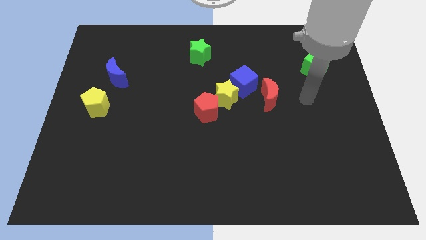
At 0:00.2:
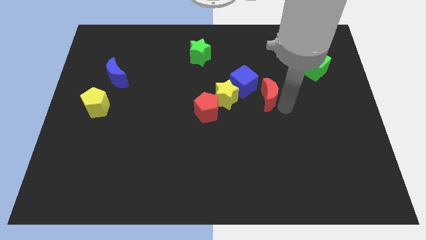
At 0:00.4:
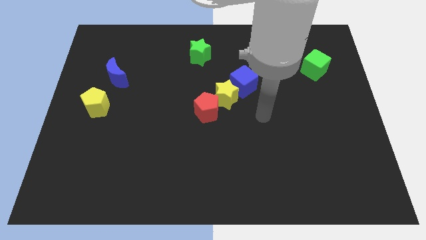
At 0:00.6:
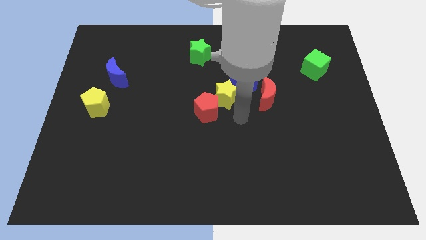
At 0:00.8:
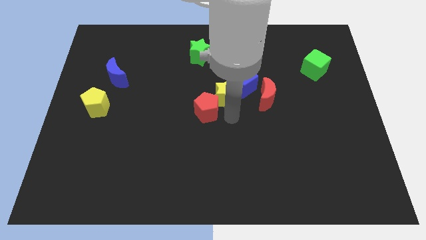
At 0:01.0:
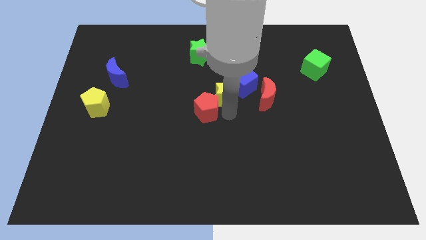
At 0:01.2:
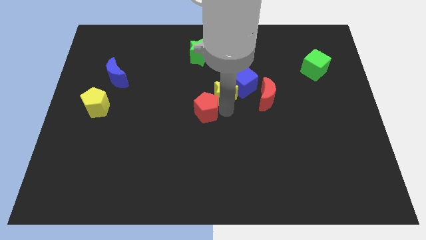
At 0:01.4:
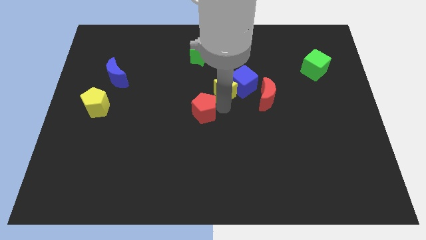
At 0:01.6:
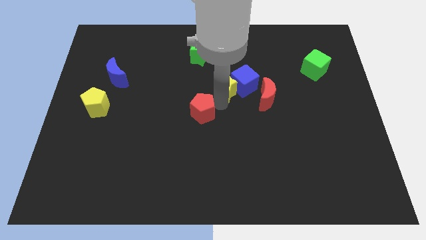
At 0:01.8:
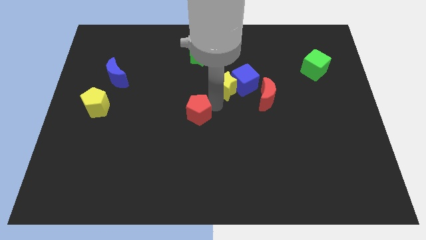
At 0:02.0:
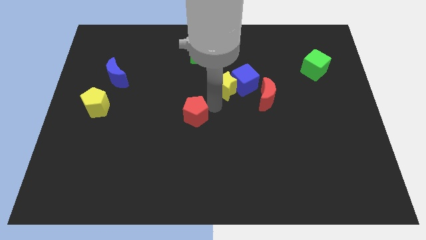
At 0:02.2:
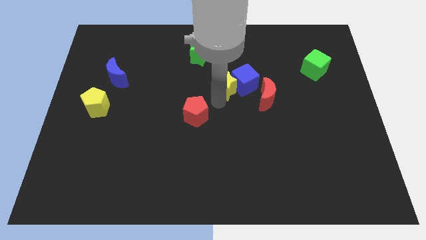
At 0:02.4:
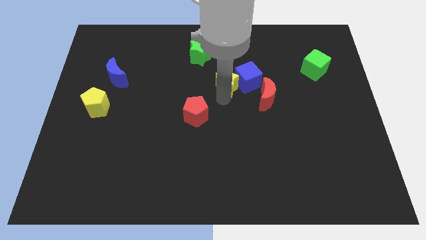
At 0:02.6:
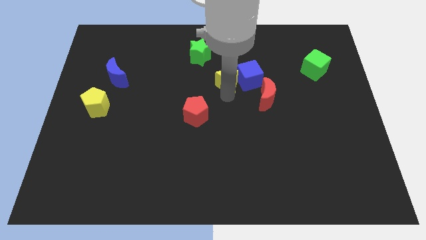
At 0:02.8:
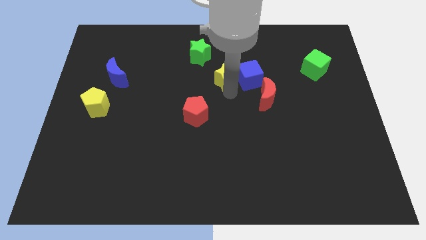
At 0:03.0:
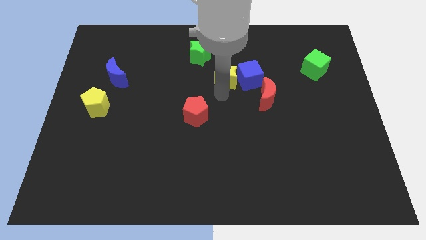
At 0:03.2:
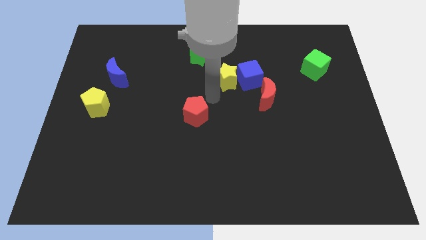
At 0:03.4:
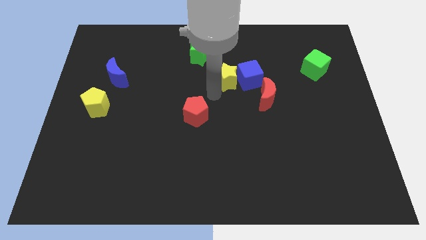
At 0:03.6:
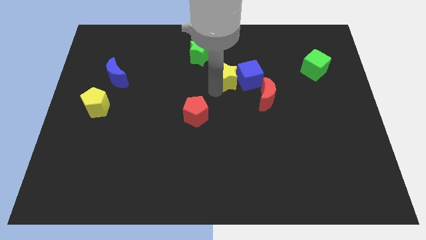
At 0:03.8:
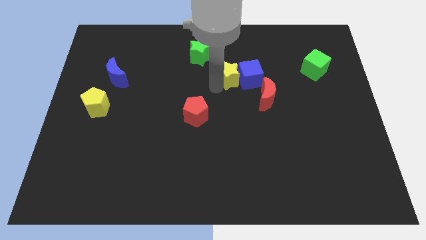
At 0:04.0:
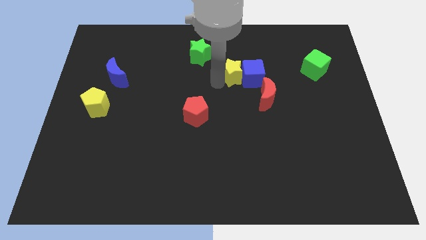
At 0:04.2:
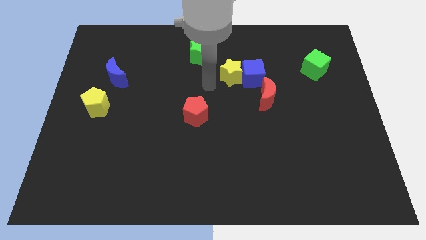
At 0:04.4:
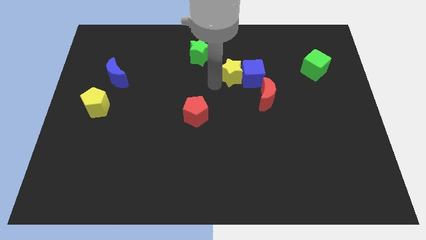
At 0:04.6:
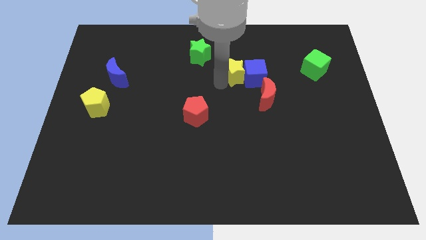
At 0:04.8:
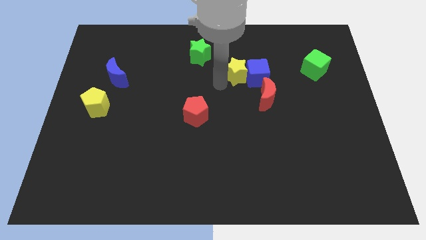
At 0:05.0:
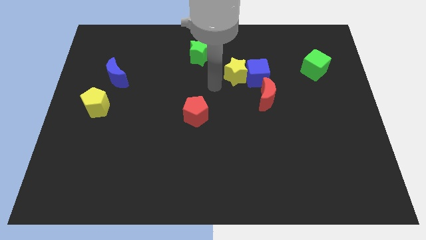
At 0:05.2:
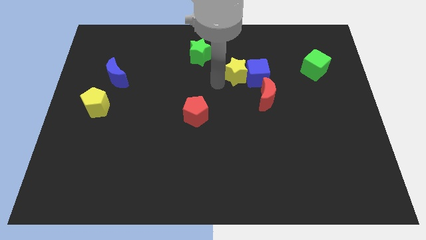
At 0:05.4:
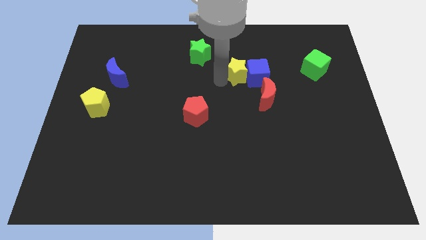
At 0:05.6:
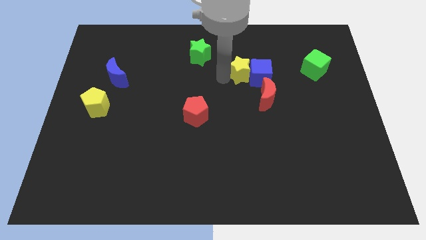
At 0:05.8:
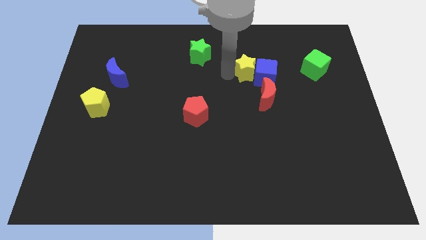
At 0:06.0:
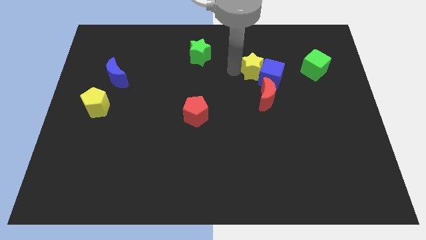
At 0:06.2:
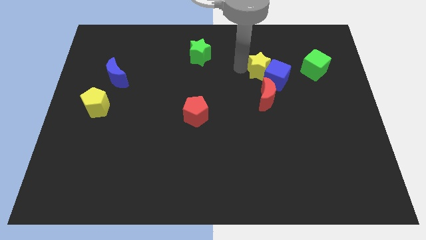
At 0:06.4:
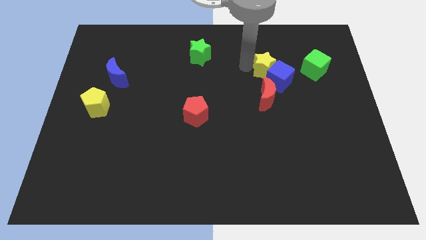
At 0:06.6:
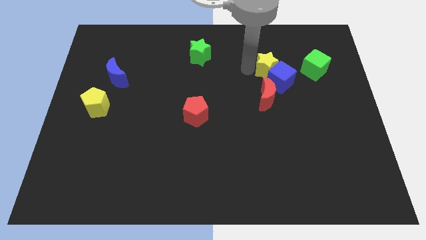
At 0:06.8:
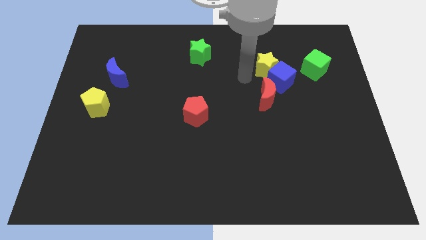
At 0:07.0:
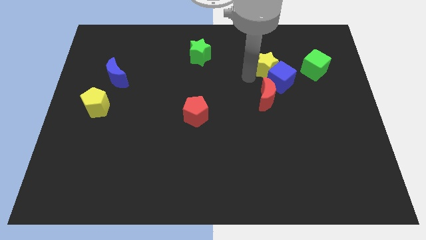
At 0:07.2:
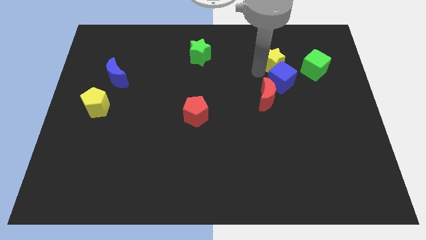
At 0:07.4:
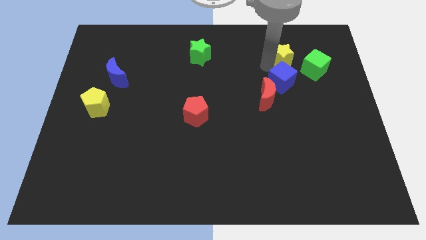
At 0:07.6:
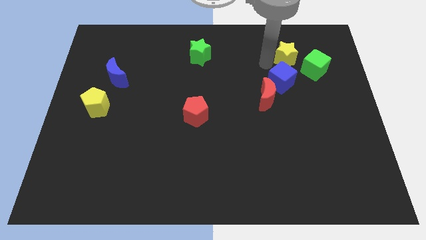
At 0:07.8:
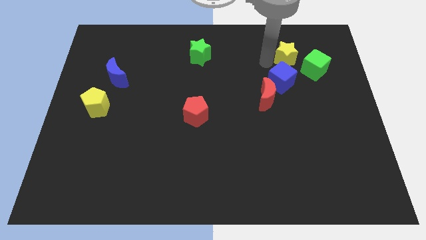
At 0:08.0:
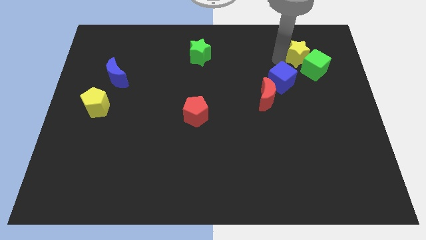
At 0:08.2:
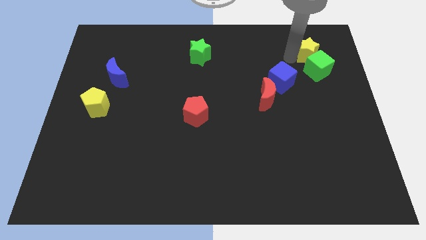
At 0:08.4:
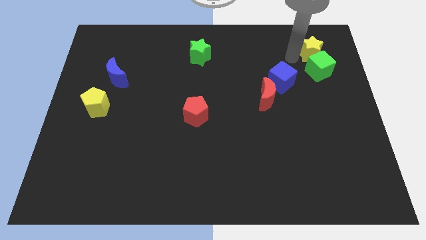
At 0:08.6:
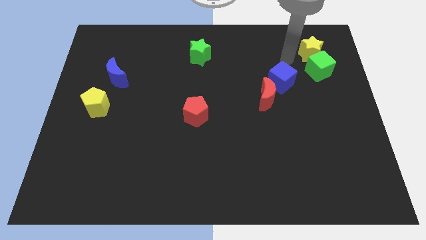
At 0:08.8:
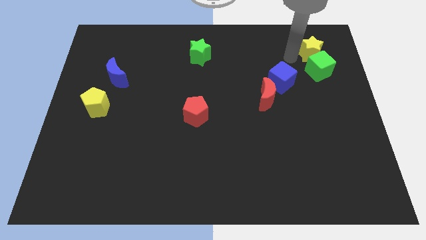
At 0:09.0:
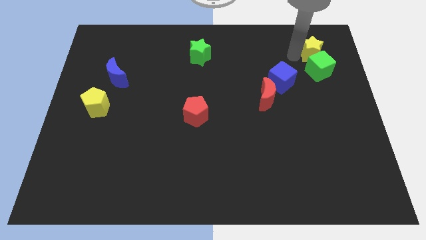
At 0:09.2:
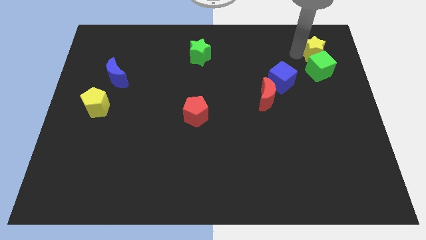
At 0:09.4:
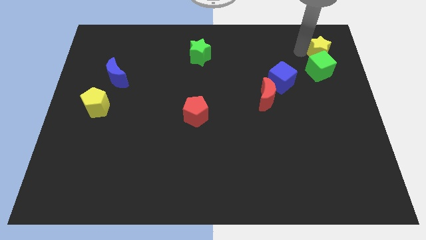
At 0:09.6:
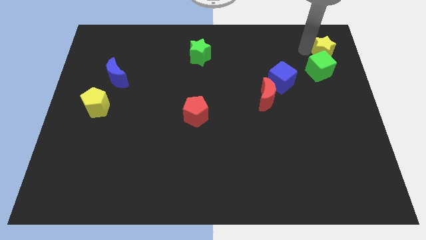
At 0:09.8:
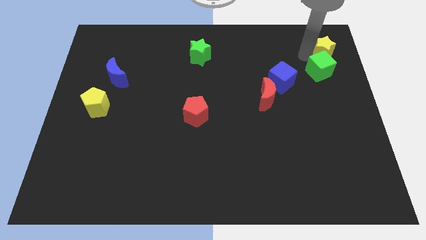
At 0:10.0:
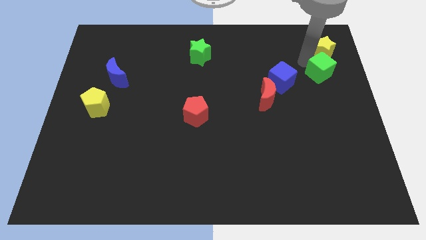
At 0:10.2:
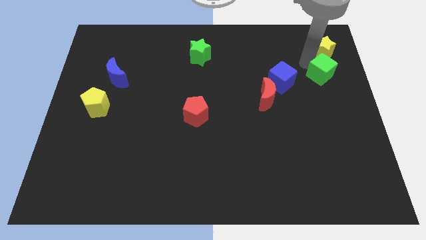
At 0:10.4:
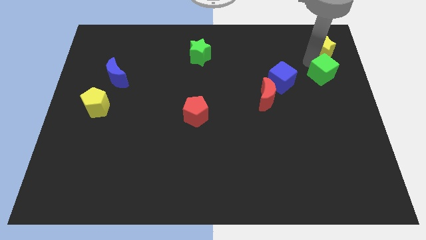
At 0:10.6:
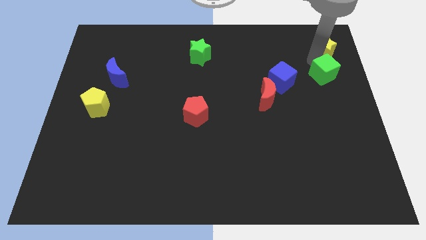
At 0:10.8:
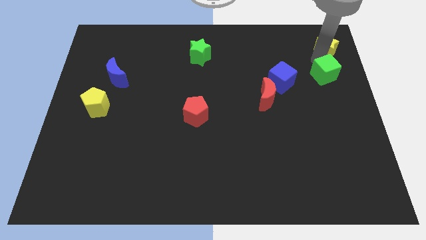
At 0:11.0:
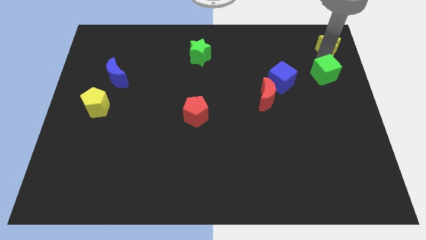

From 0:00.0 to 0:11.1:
put the yellow star to the top right

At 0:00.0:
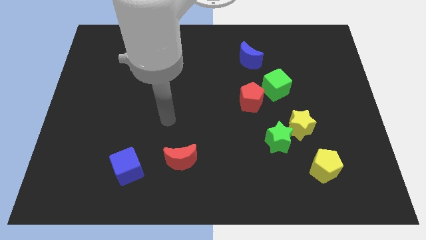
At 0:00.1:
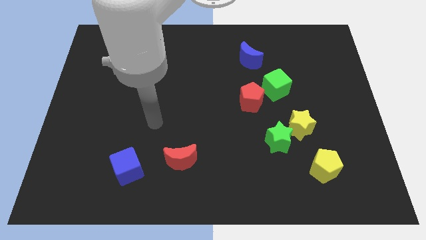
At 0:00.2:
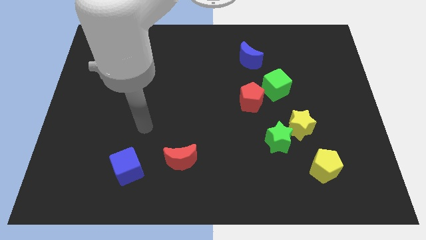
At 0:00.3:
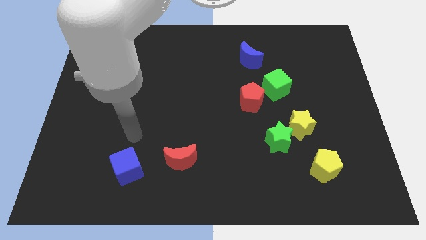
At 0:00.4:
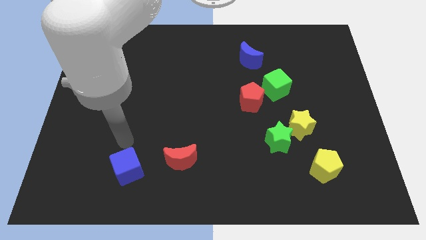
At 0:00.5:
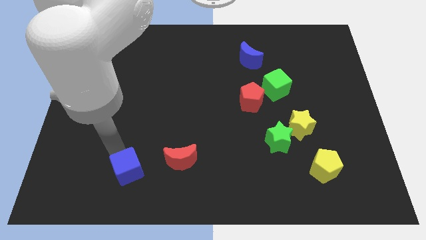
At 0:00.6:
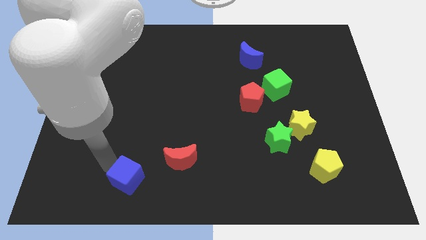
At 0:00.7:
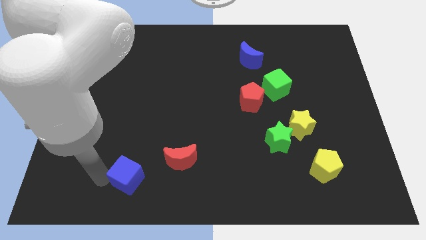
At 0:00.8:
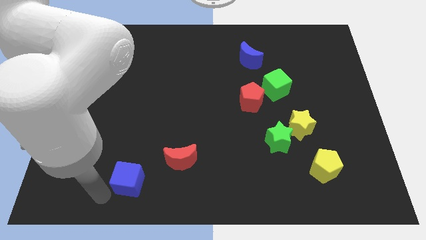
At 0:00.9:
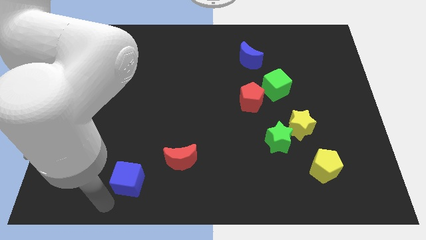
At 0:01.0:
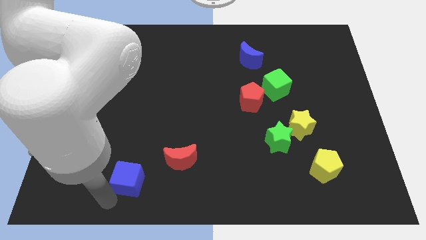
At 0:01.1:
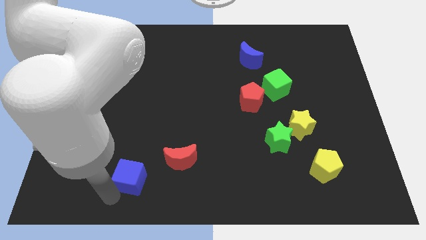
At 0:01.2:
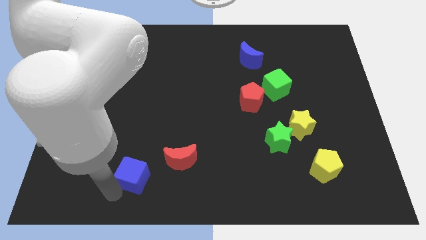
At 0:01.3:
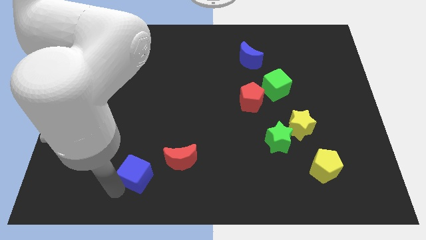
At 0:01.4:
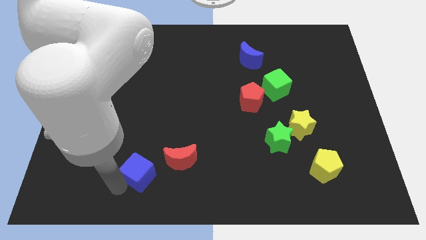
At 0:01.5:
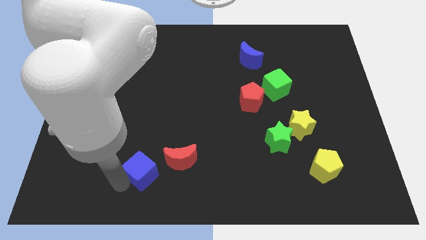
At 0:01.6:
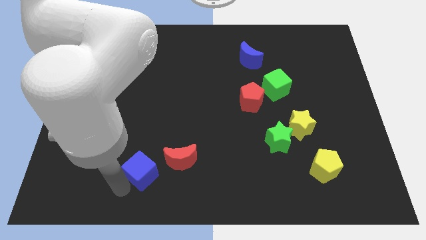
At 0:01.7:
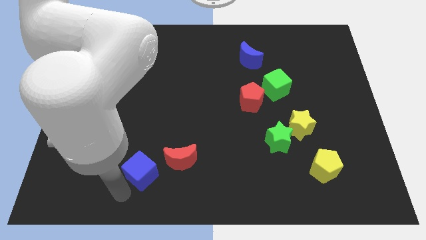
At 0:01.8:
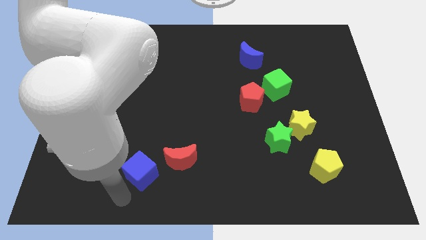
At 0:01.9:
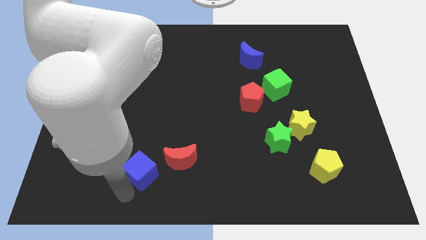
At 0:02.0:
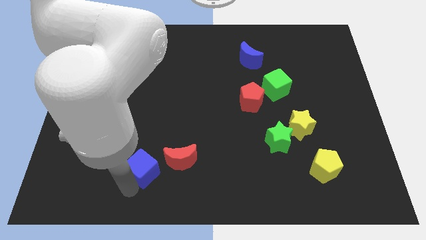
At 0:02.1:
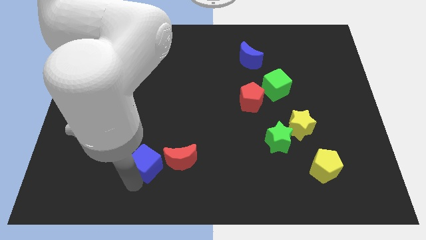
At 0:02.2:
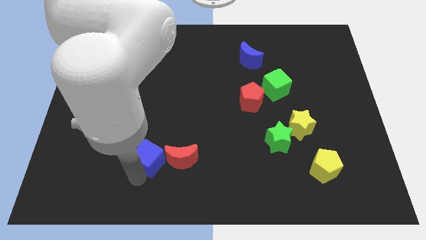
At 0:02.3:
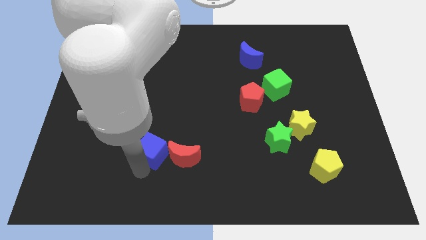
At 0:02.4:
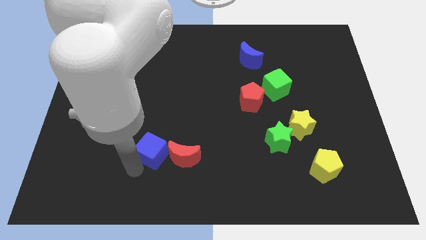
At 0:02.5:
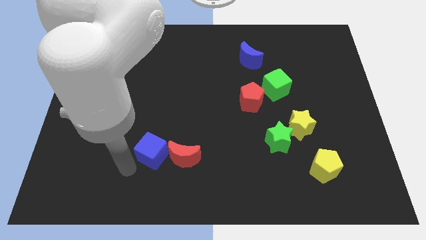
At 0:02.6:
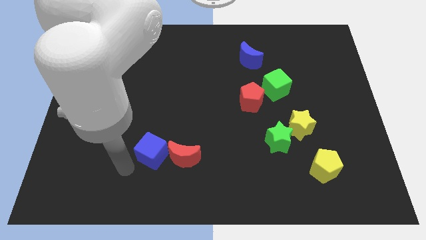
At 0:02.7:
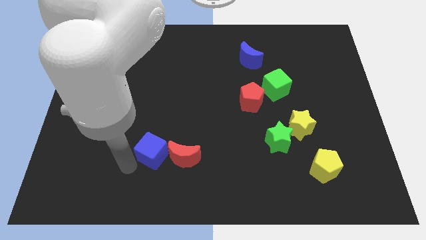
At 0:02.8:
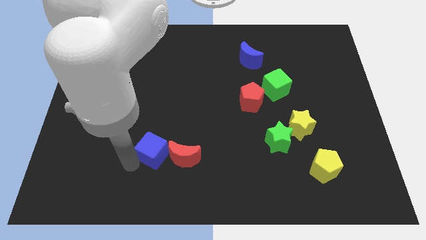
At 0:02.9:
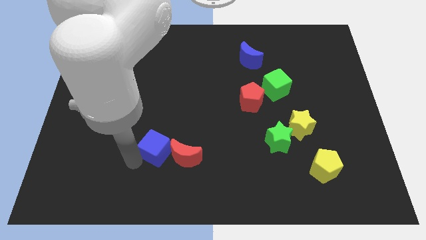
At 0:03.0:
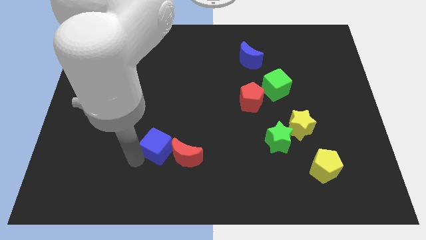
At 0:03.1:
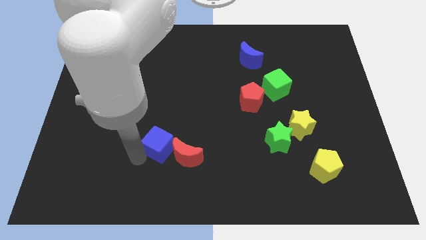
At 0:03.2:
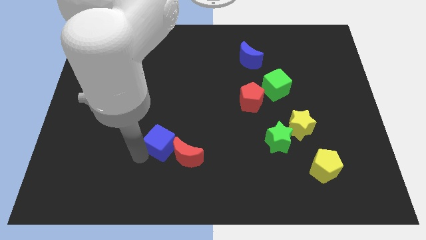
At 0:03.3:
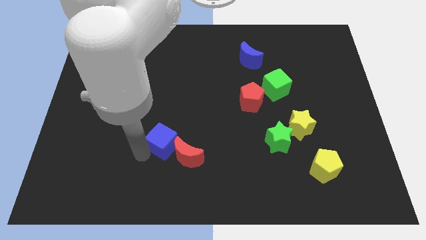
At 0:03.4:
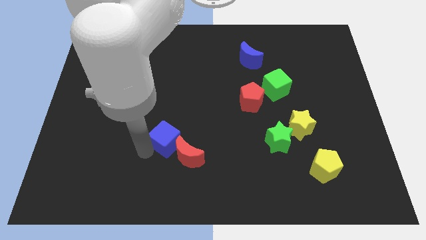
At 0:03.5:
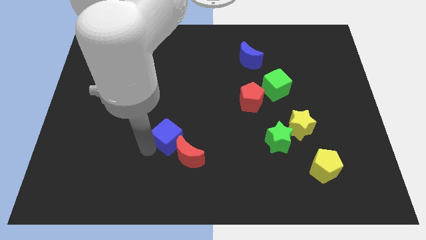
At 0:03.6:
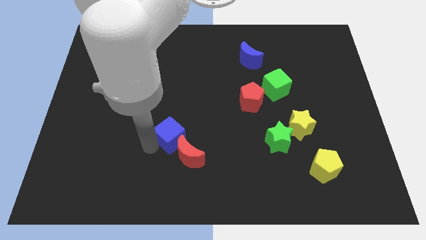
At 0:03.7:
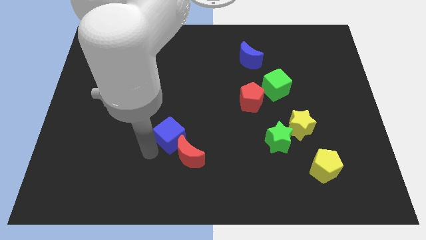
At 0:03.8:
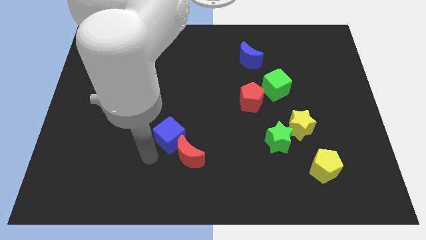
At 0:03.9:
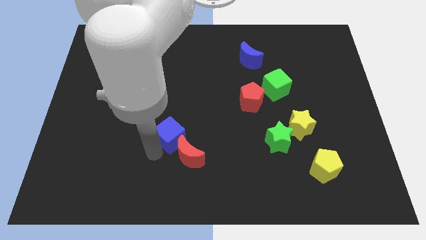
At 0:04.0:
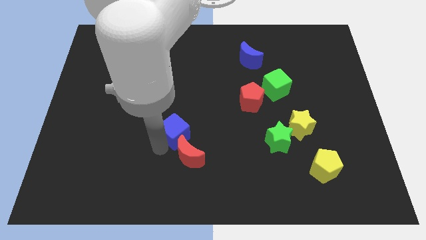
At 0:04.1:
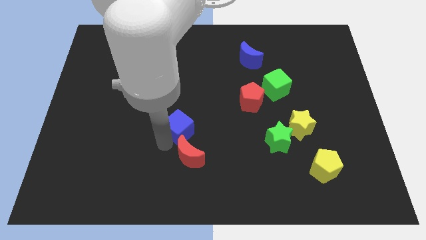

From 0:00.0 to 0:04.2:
move the blue cube to the center
